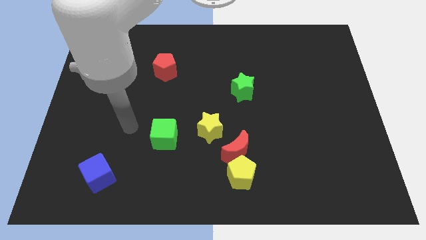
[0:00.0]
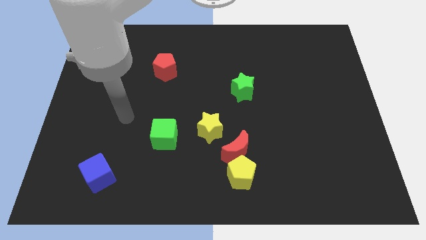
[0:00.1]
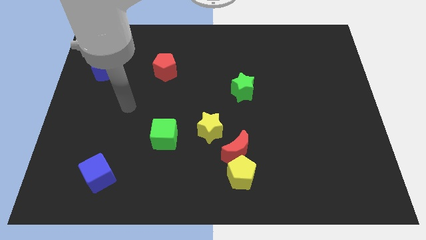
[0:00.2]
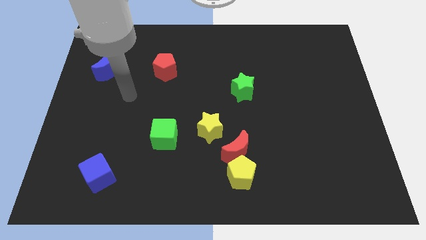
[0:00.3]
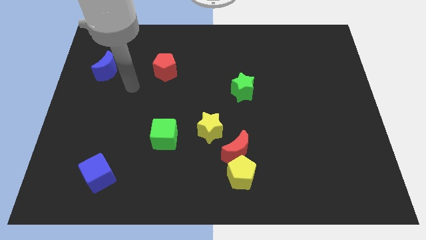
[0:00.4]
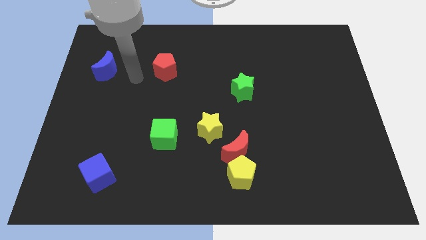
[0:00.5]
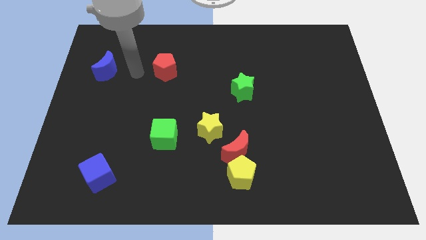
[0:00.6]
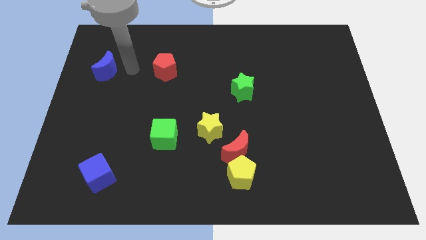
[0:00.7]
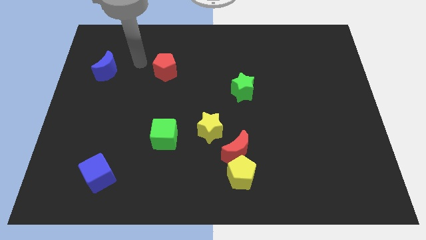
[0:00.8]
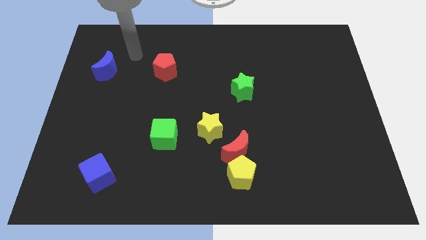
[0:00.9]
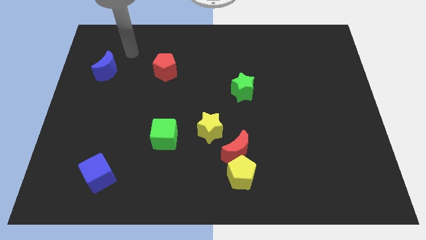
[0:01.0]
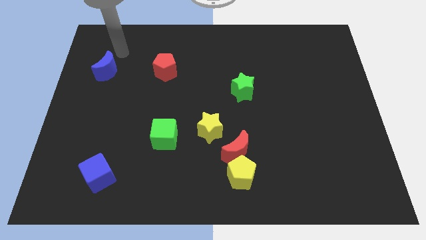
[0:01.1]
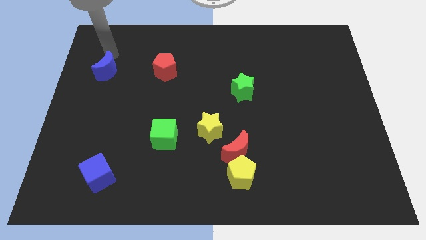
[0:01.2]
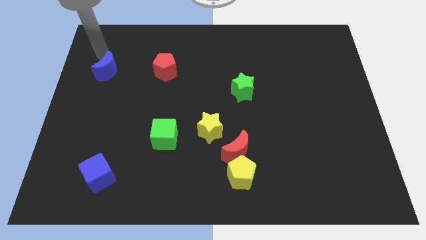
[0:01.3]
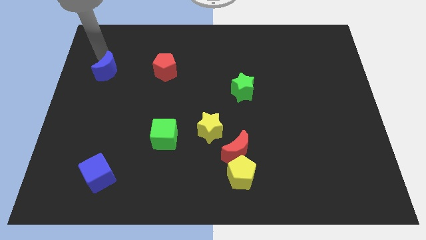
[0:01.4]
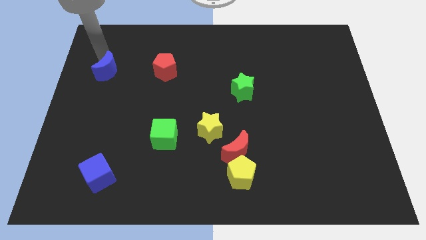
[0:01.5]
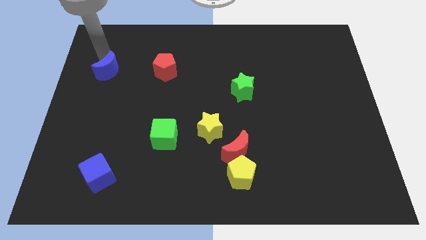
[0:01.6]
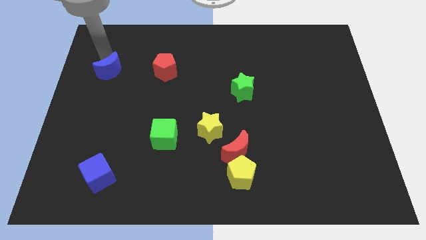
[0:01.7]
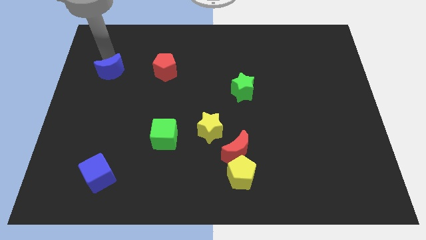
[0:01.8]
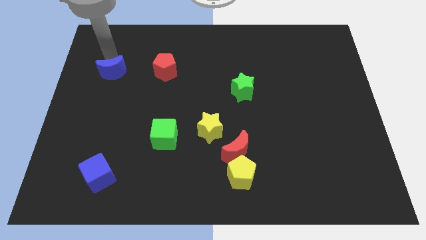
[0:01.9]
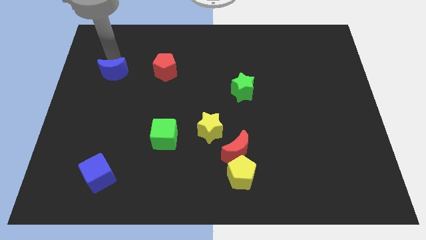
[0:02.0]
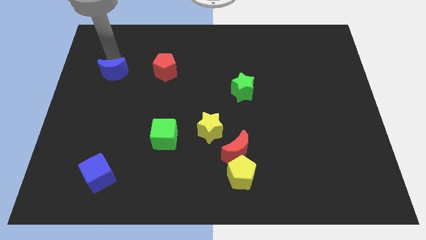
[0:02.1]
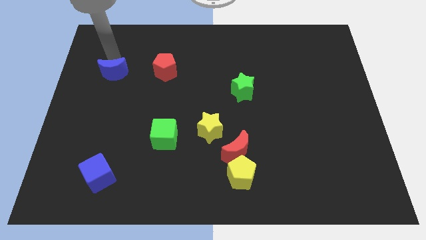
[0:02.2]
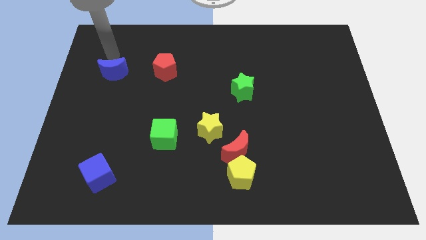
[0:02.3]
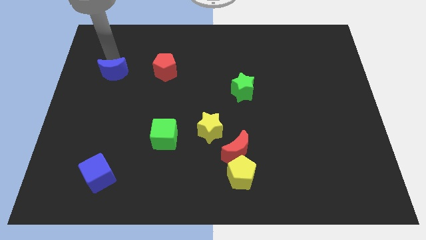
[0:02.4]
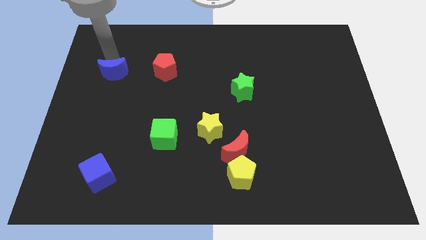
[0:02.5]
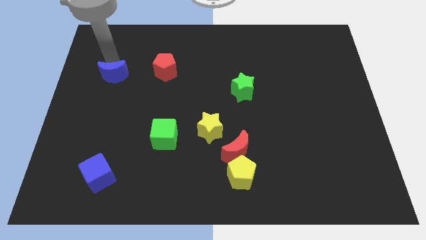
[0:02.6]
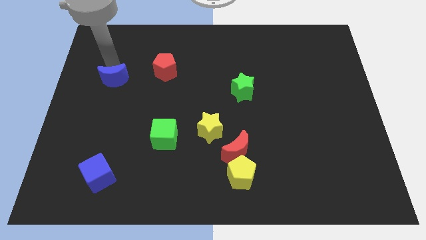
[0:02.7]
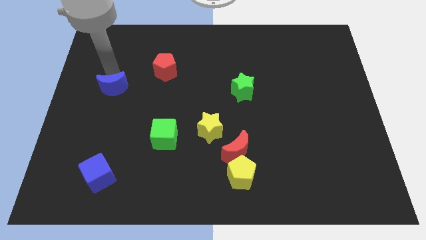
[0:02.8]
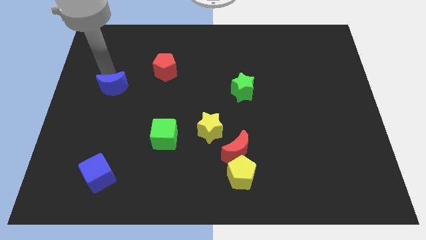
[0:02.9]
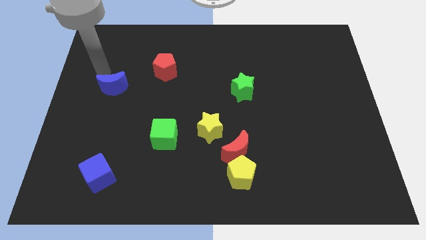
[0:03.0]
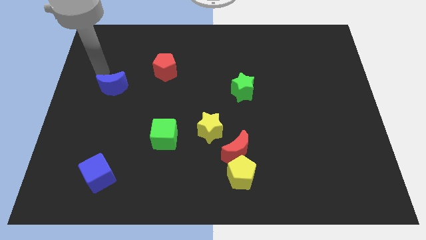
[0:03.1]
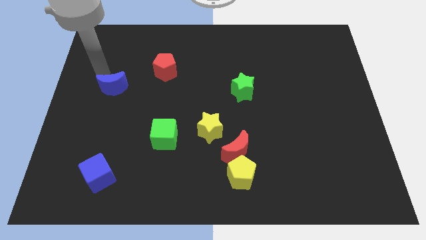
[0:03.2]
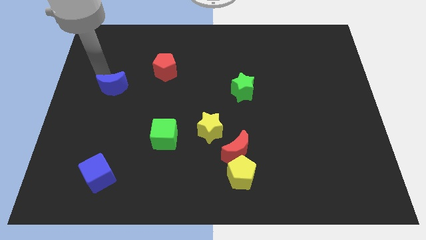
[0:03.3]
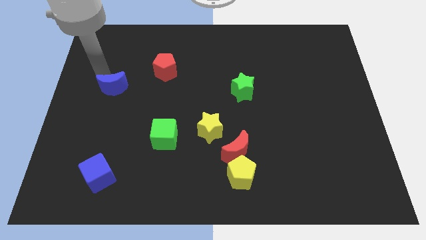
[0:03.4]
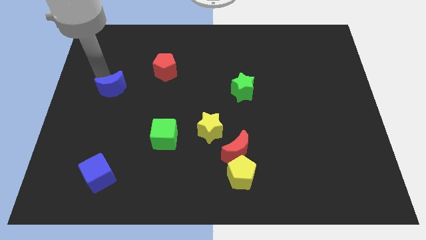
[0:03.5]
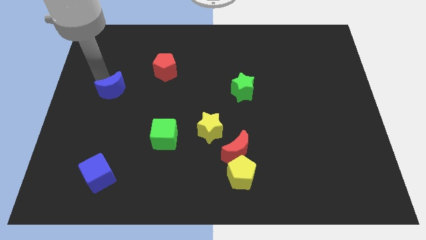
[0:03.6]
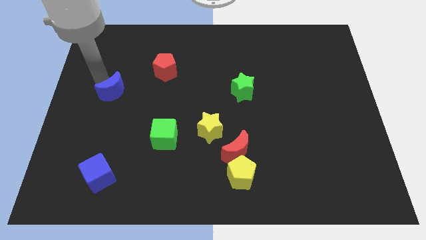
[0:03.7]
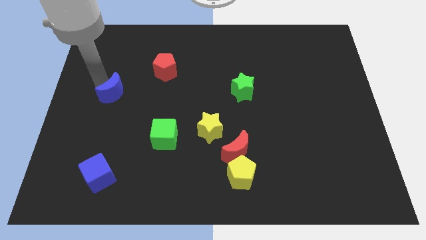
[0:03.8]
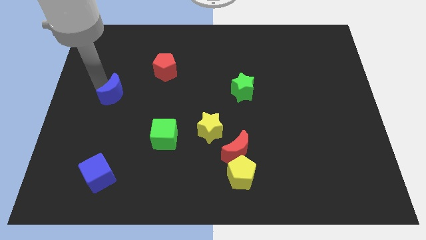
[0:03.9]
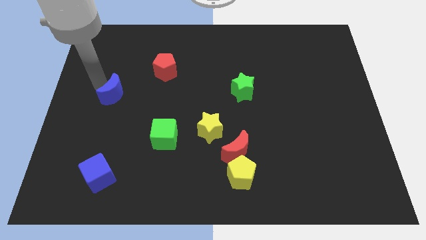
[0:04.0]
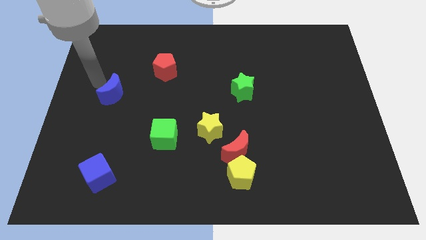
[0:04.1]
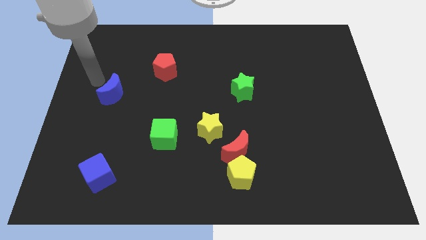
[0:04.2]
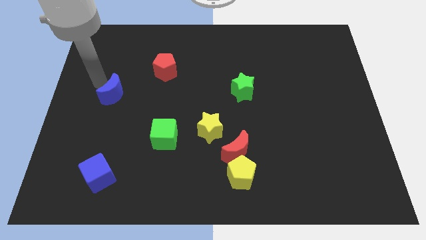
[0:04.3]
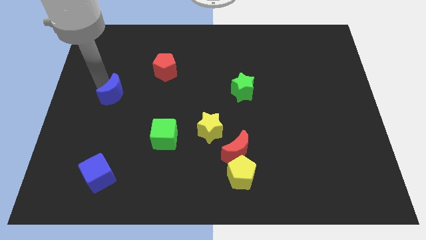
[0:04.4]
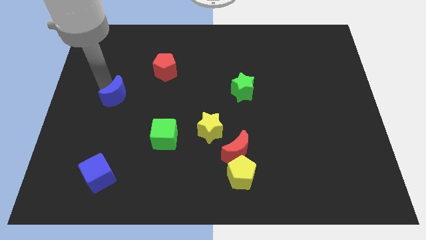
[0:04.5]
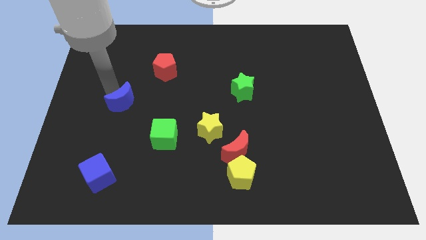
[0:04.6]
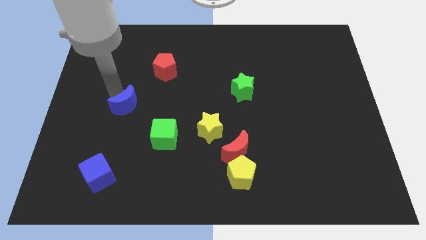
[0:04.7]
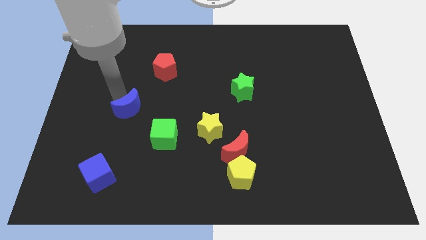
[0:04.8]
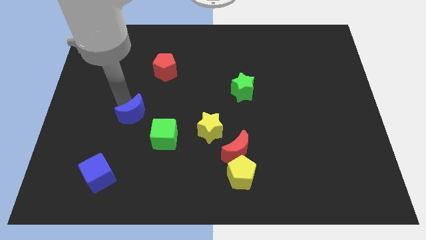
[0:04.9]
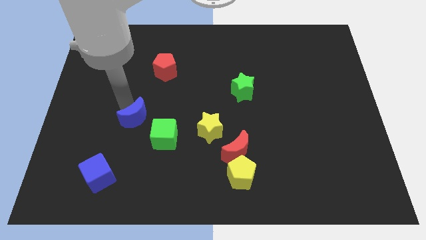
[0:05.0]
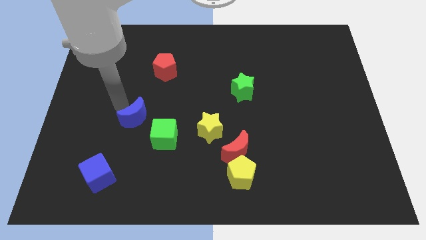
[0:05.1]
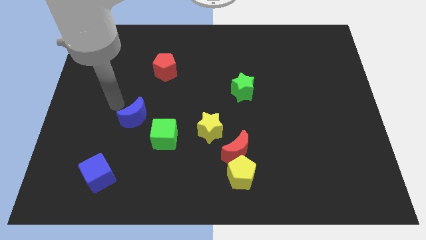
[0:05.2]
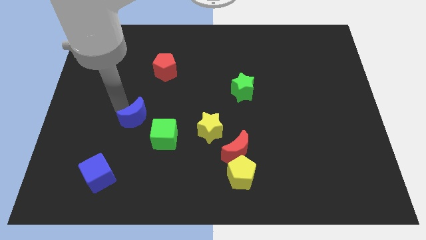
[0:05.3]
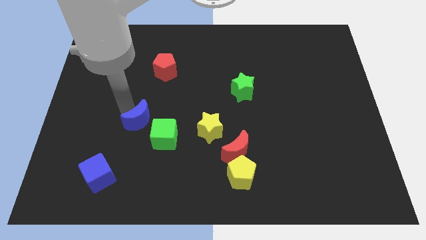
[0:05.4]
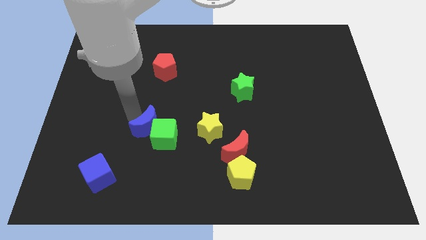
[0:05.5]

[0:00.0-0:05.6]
slide the blue moon close to the green cube
